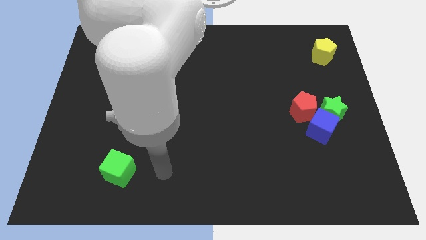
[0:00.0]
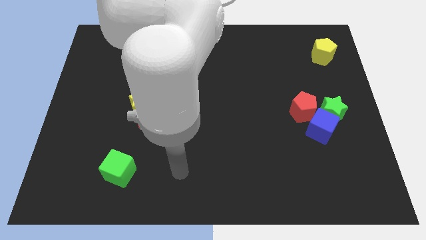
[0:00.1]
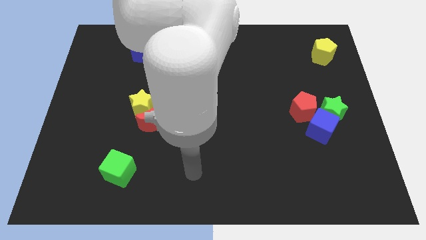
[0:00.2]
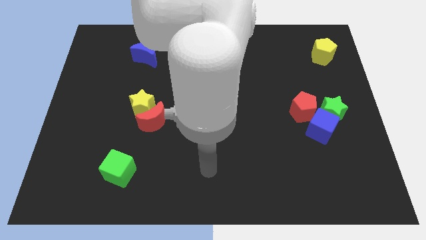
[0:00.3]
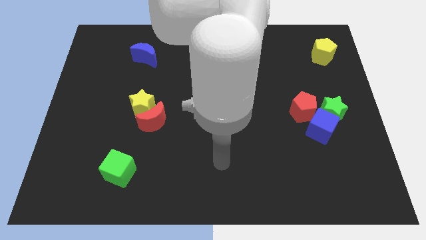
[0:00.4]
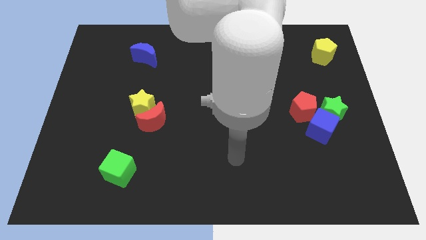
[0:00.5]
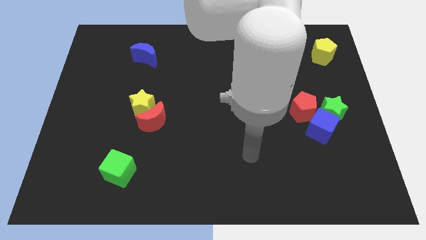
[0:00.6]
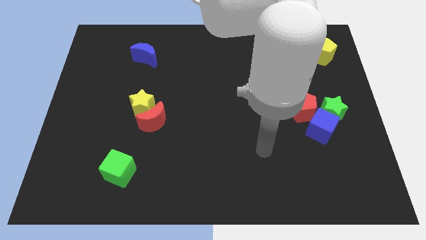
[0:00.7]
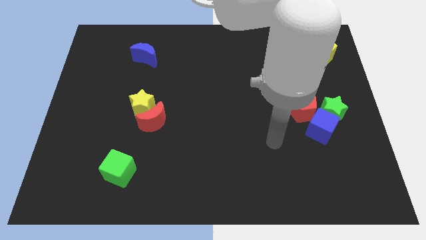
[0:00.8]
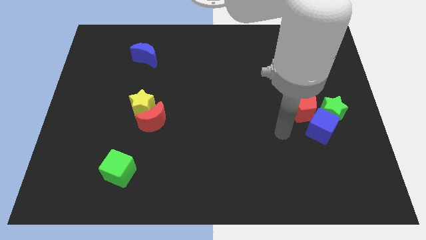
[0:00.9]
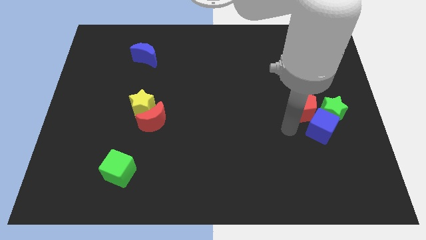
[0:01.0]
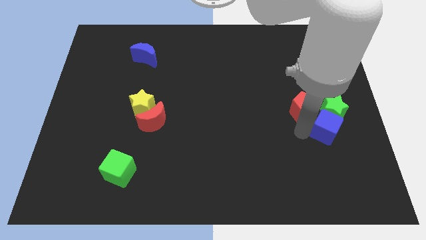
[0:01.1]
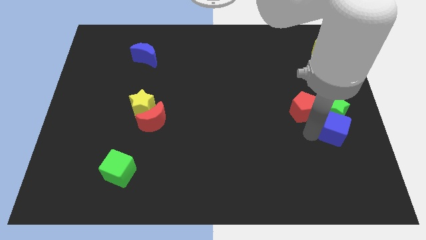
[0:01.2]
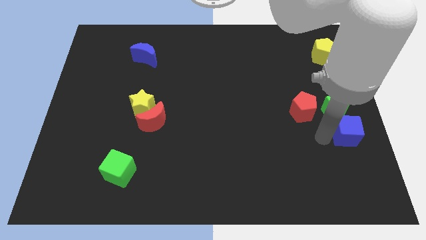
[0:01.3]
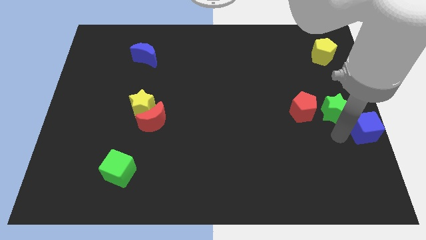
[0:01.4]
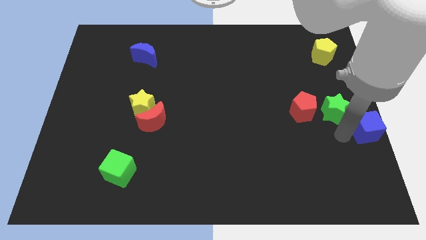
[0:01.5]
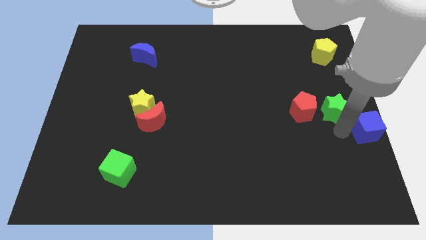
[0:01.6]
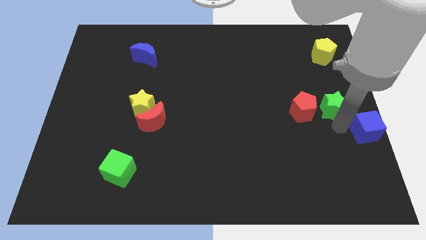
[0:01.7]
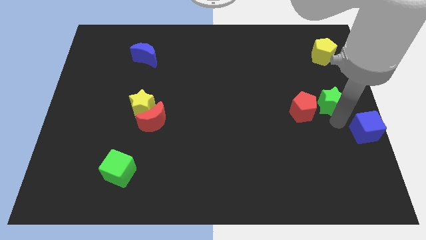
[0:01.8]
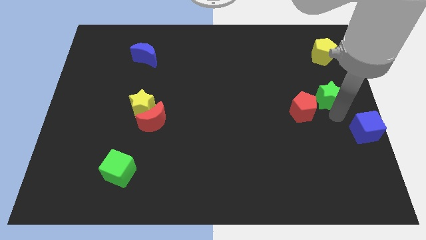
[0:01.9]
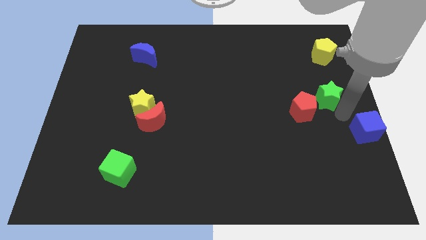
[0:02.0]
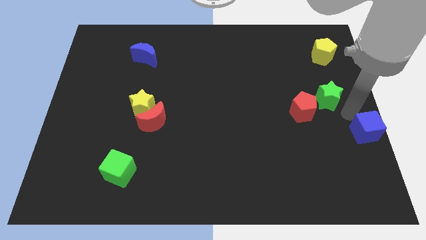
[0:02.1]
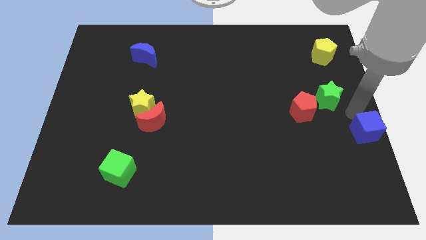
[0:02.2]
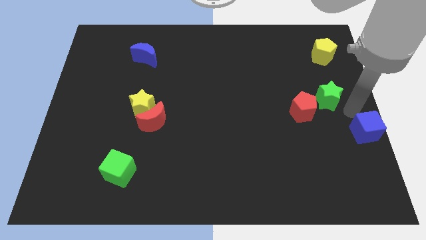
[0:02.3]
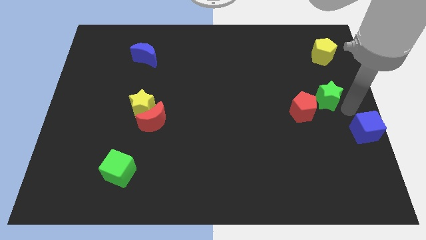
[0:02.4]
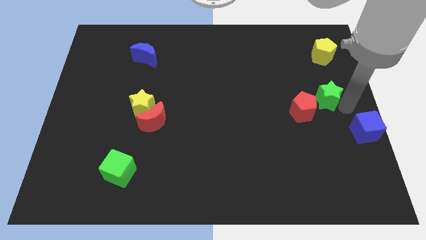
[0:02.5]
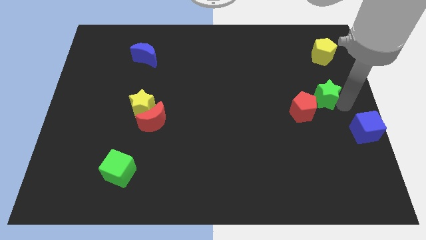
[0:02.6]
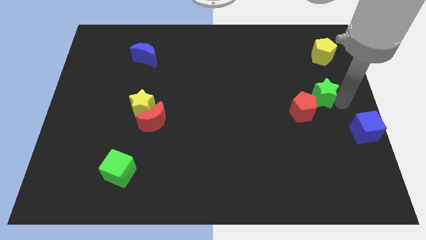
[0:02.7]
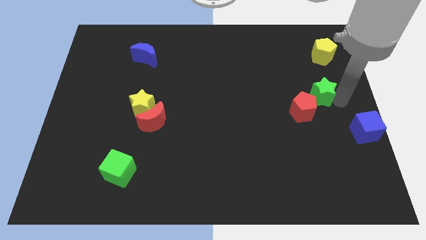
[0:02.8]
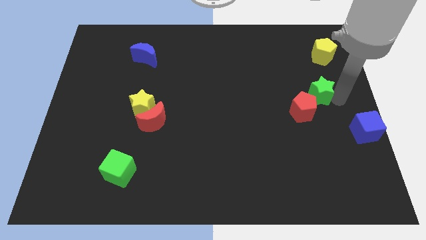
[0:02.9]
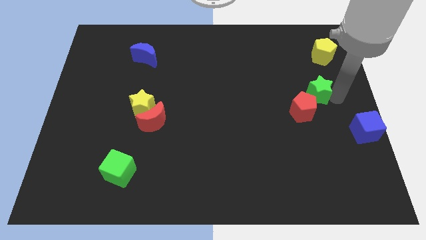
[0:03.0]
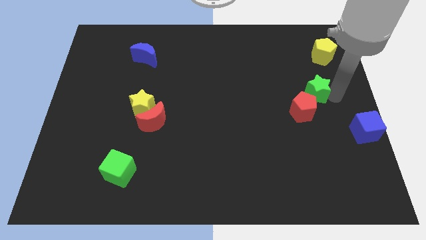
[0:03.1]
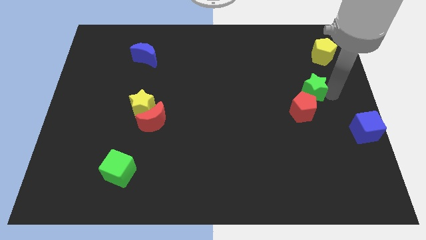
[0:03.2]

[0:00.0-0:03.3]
slightly push the green star upwards and then to the left

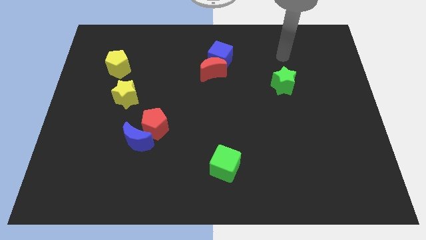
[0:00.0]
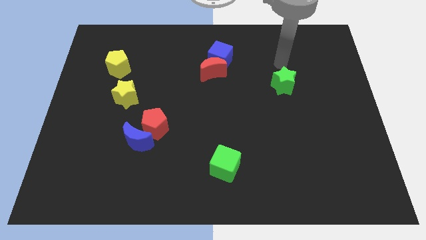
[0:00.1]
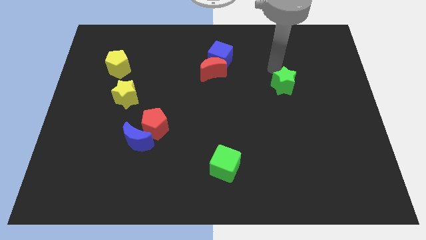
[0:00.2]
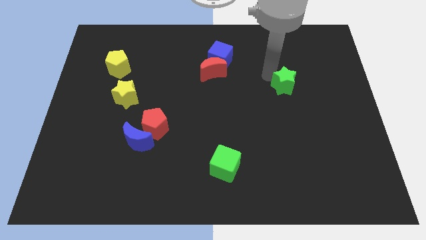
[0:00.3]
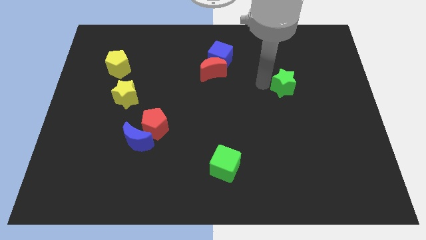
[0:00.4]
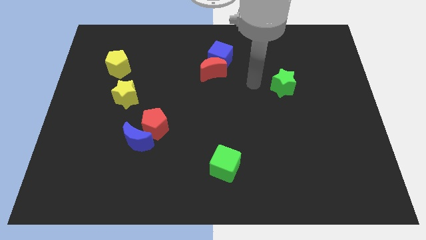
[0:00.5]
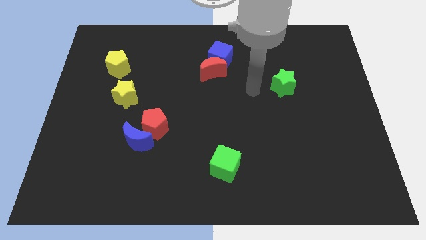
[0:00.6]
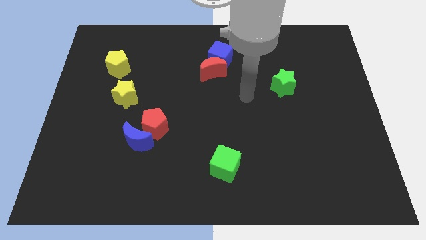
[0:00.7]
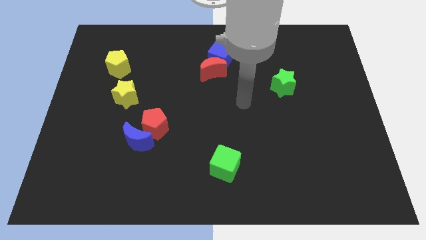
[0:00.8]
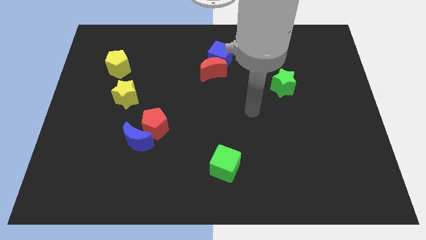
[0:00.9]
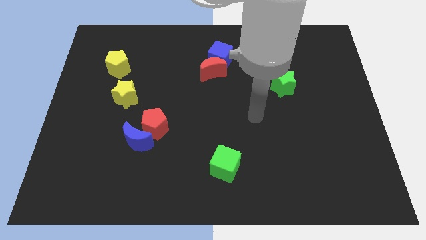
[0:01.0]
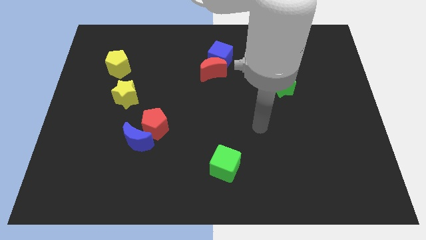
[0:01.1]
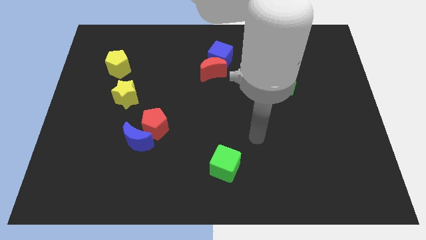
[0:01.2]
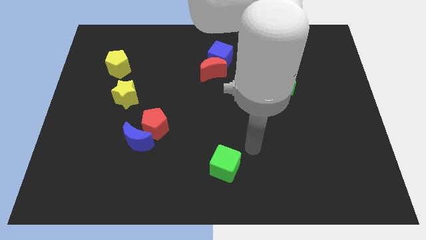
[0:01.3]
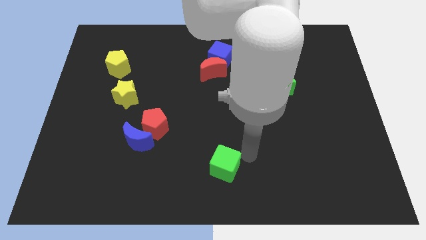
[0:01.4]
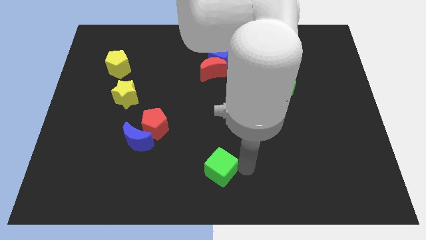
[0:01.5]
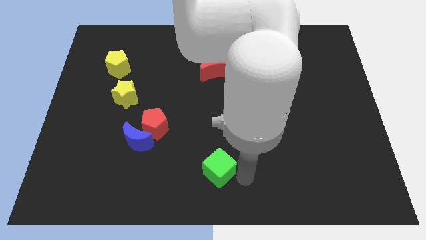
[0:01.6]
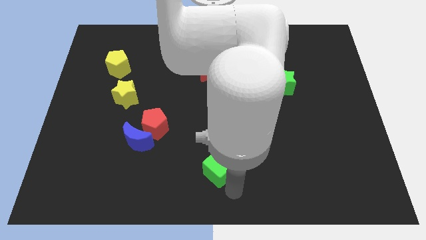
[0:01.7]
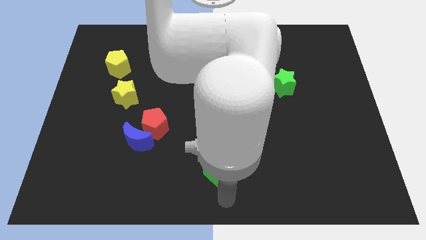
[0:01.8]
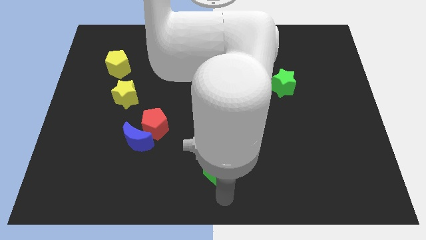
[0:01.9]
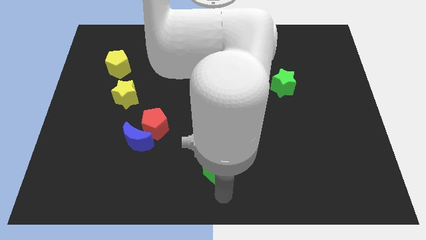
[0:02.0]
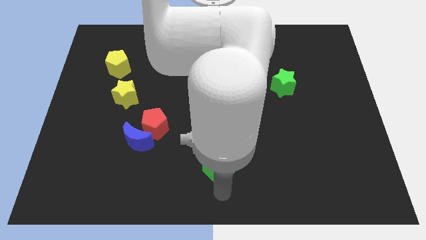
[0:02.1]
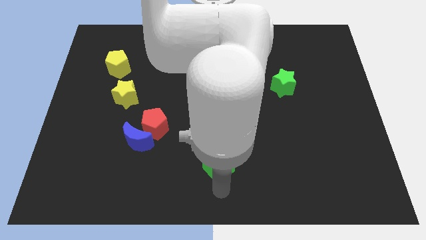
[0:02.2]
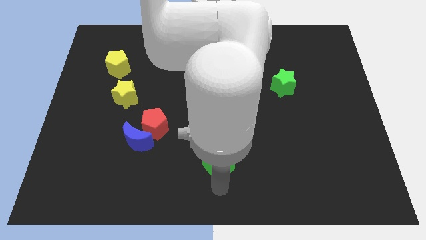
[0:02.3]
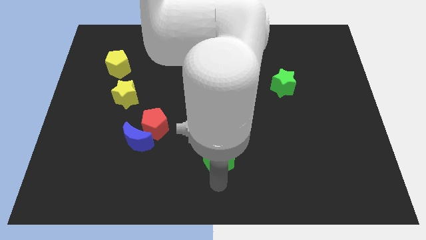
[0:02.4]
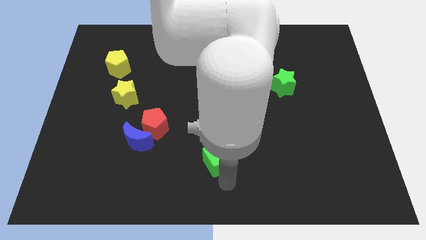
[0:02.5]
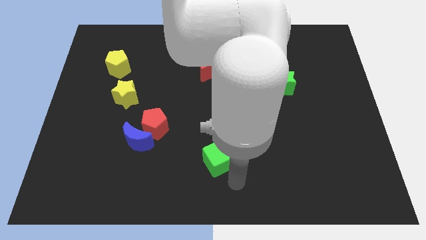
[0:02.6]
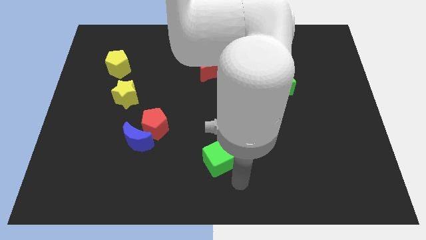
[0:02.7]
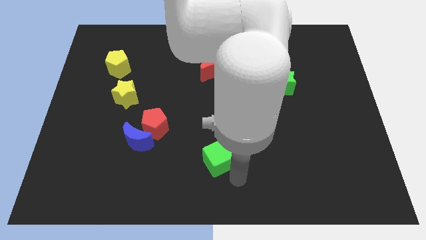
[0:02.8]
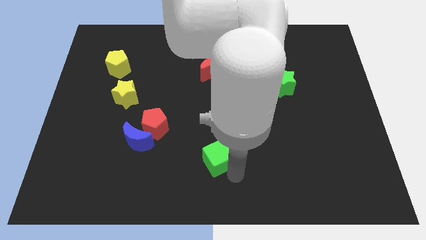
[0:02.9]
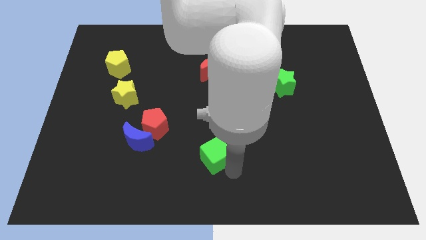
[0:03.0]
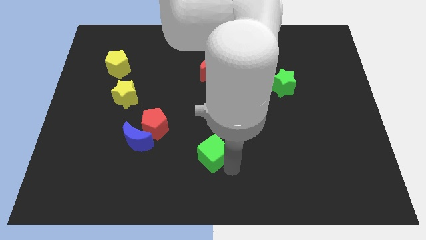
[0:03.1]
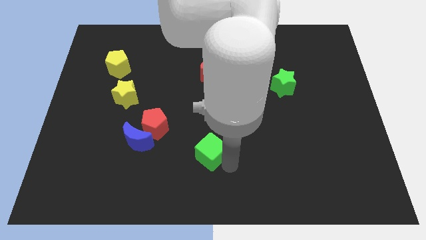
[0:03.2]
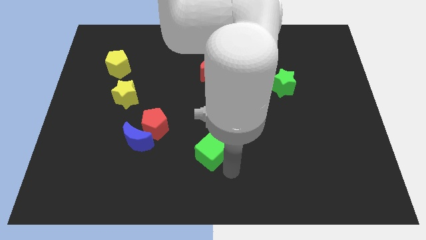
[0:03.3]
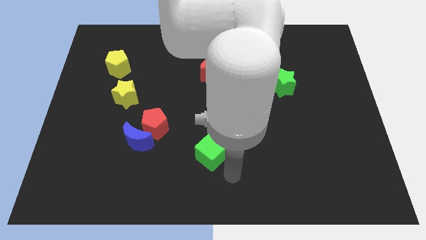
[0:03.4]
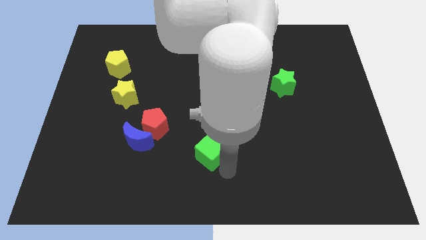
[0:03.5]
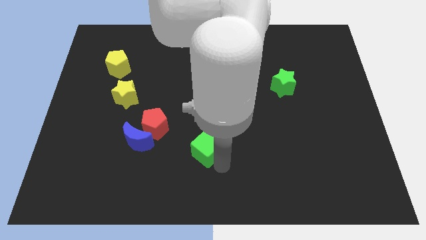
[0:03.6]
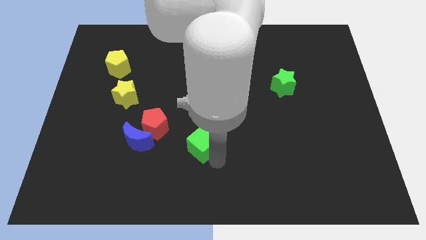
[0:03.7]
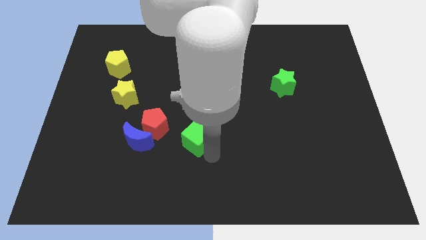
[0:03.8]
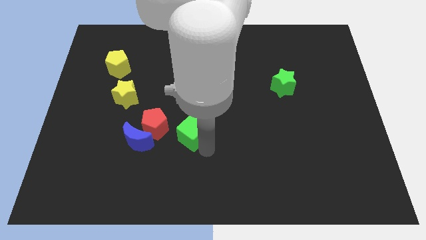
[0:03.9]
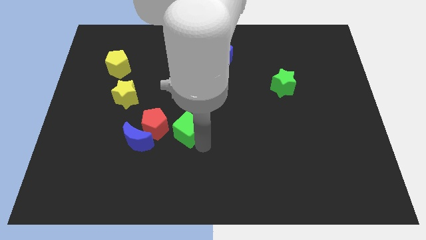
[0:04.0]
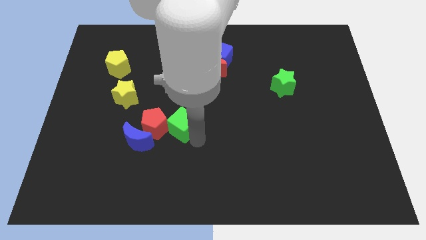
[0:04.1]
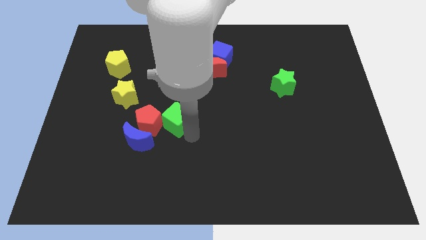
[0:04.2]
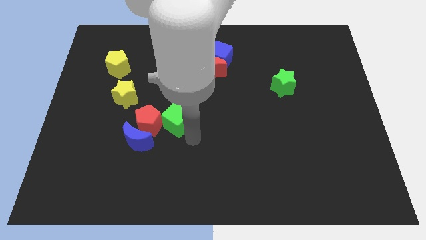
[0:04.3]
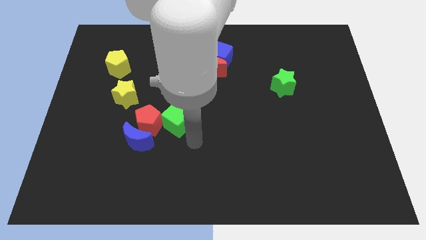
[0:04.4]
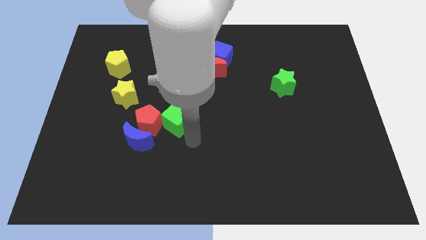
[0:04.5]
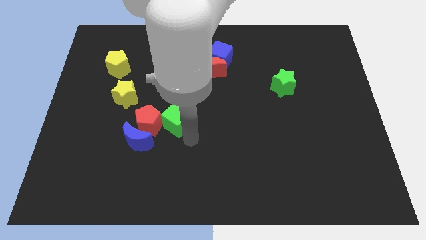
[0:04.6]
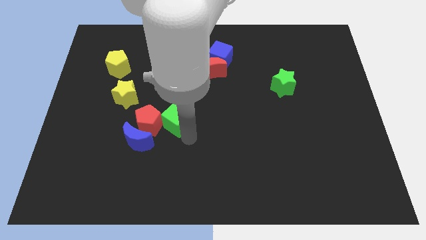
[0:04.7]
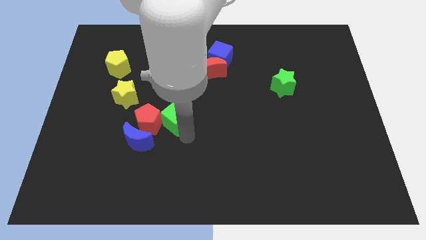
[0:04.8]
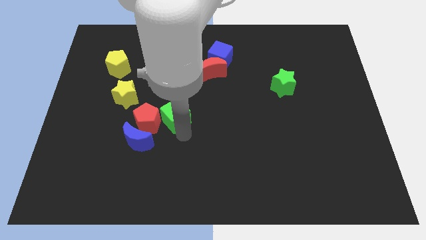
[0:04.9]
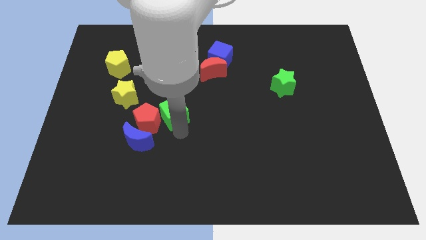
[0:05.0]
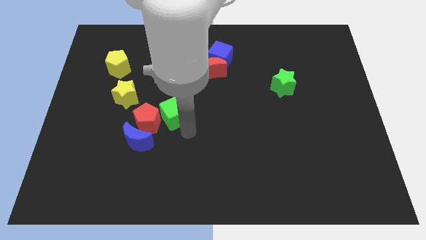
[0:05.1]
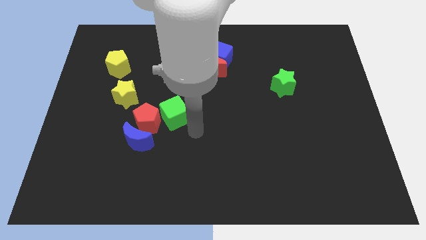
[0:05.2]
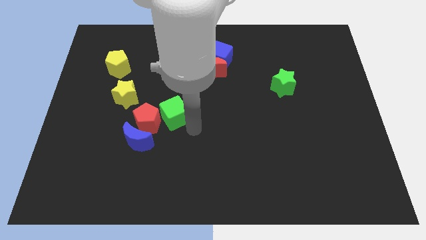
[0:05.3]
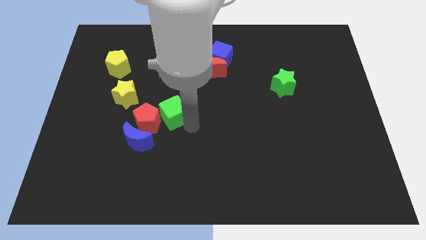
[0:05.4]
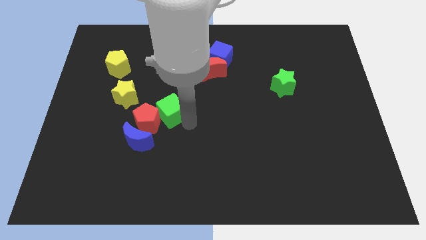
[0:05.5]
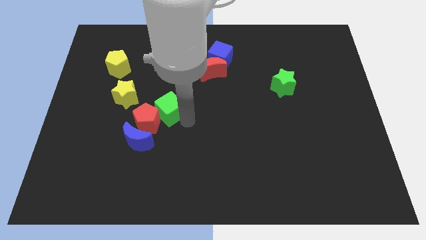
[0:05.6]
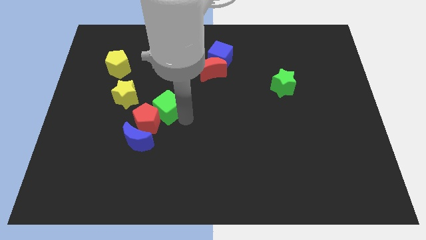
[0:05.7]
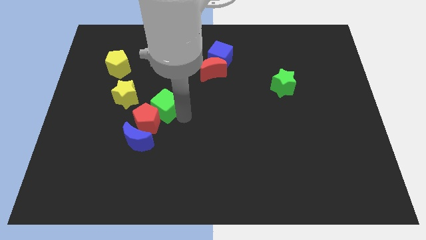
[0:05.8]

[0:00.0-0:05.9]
push the green cube diagonally upwards and to the left
